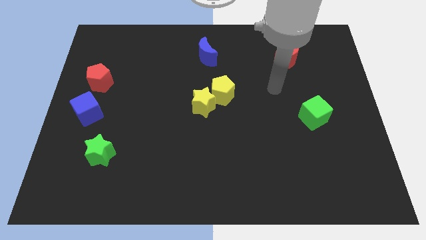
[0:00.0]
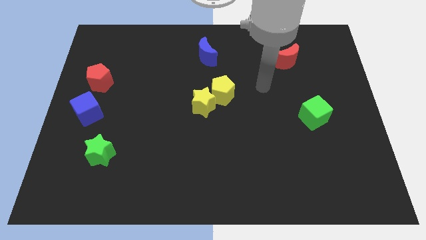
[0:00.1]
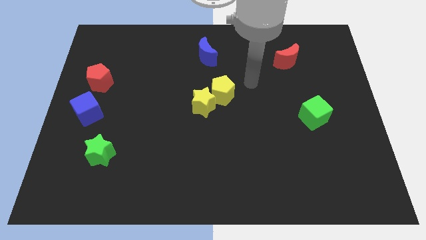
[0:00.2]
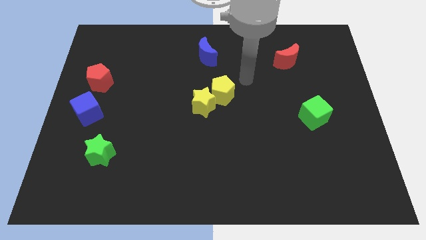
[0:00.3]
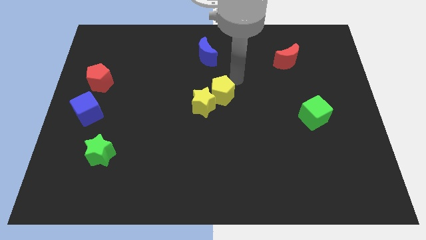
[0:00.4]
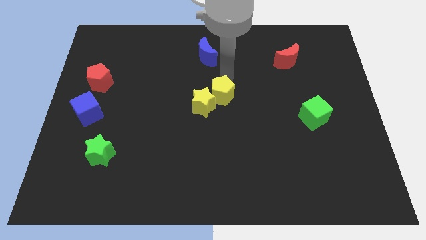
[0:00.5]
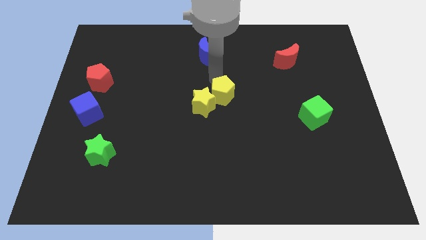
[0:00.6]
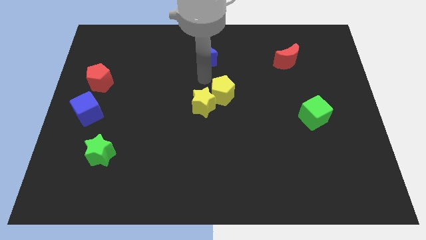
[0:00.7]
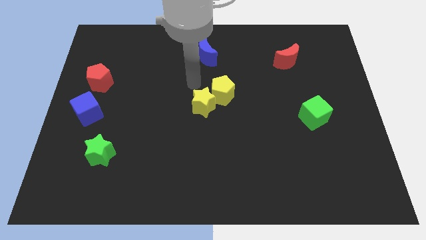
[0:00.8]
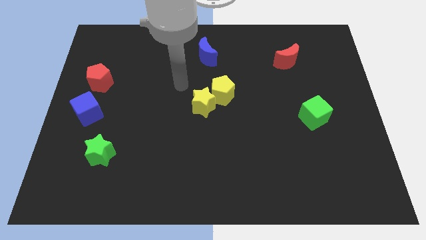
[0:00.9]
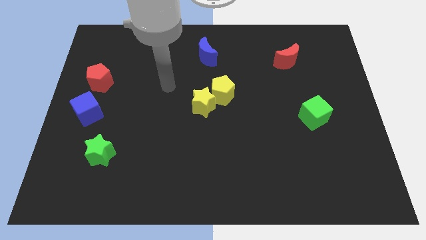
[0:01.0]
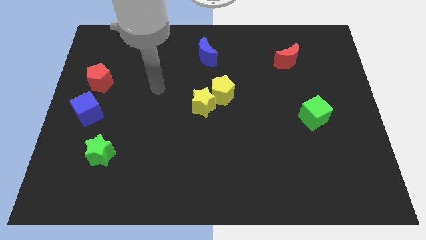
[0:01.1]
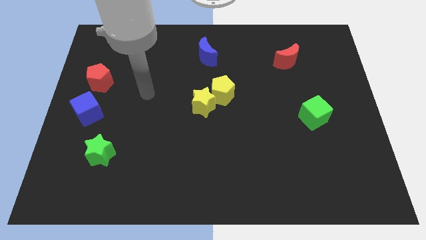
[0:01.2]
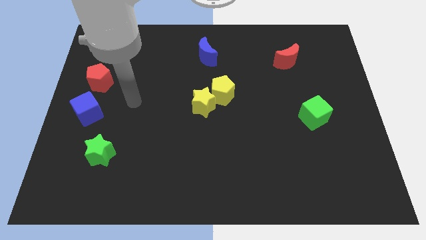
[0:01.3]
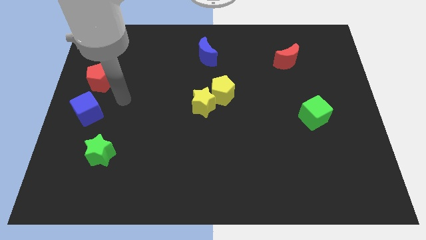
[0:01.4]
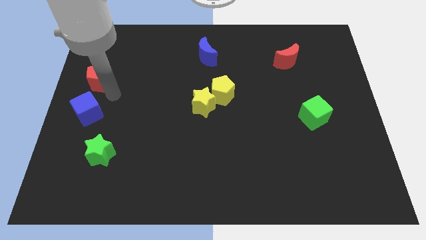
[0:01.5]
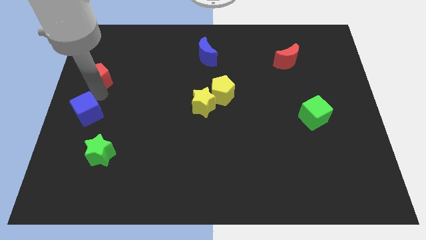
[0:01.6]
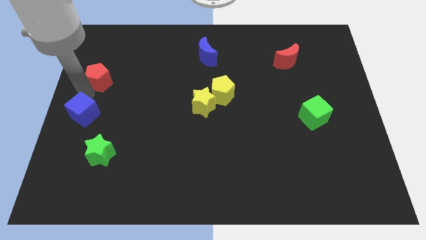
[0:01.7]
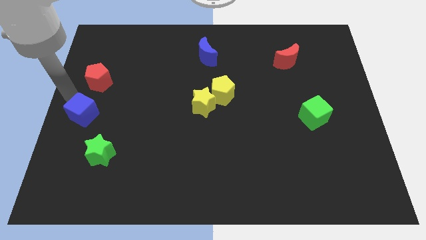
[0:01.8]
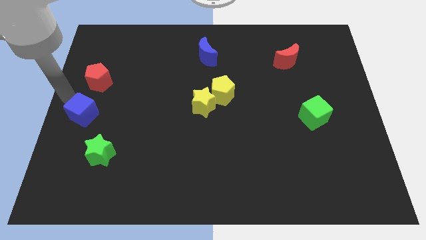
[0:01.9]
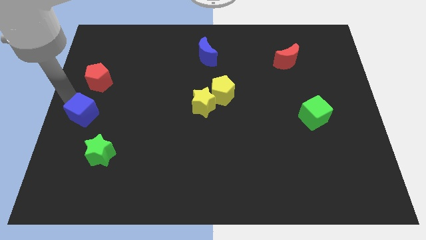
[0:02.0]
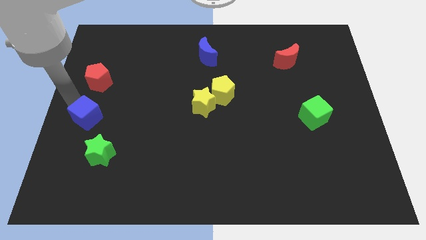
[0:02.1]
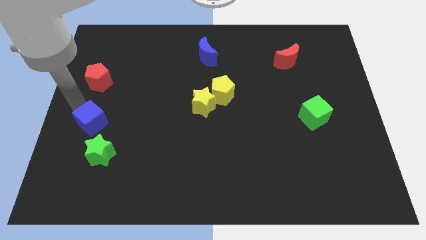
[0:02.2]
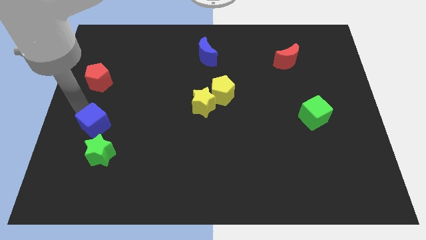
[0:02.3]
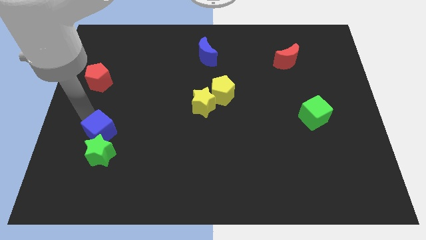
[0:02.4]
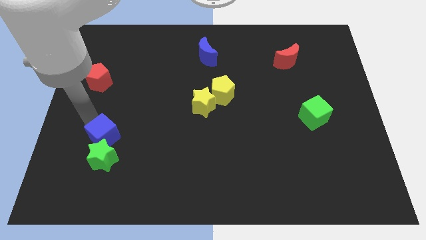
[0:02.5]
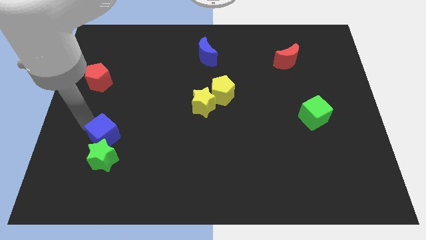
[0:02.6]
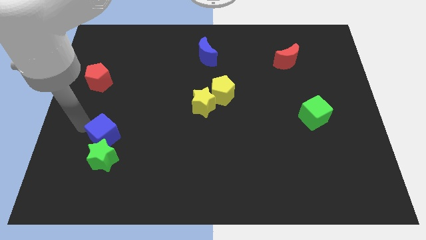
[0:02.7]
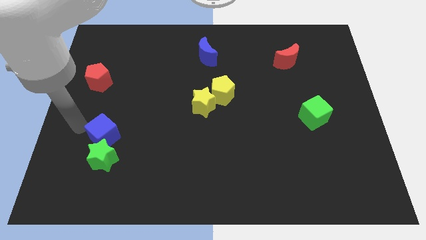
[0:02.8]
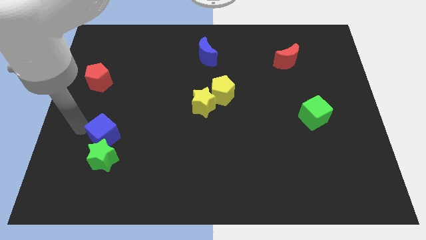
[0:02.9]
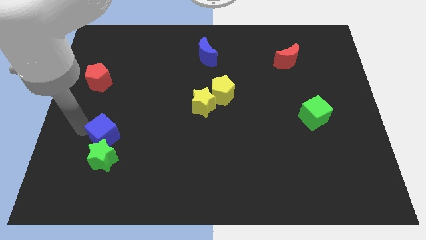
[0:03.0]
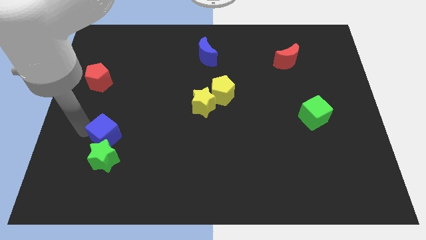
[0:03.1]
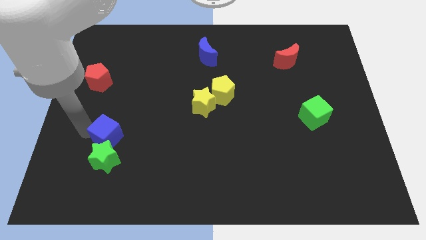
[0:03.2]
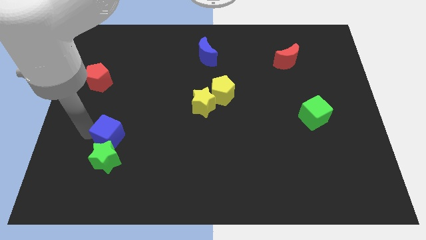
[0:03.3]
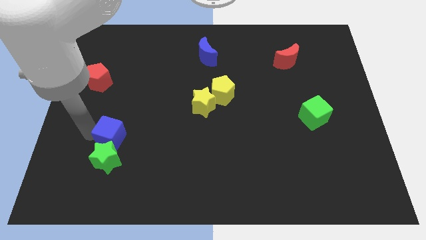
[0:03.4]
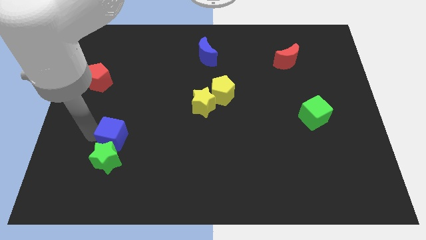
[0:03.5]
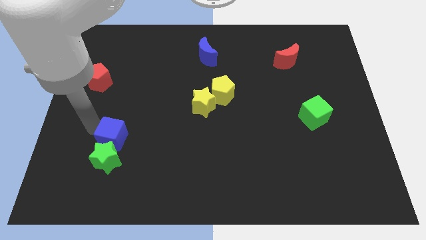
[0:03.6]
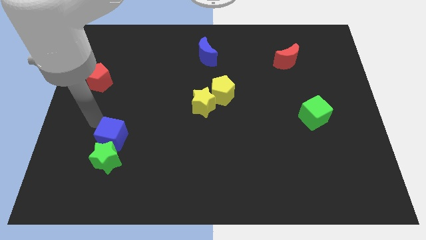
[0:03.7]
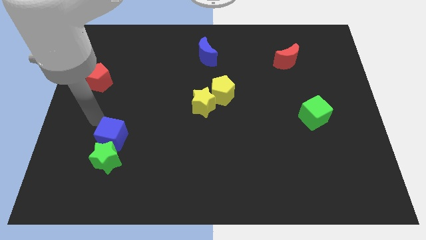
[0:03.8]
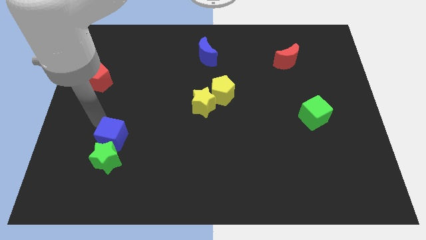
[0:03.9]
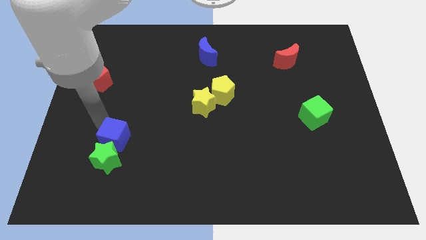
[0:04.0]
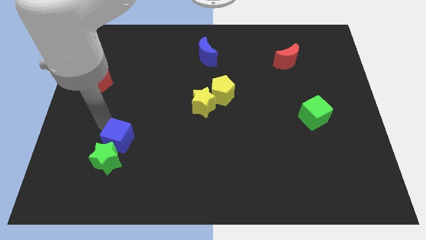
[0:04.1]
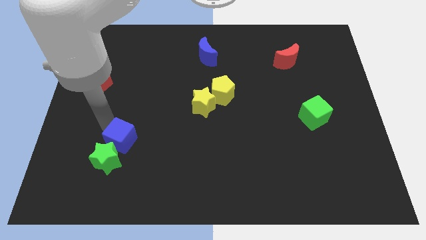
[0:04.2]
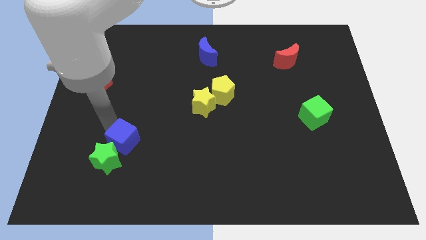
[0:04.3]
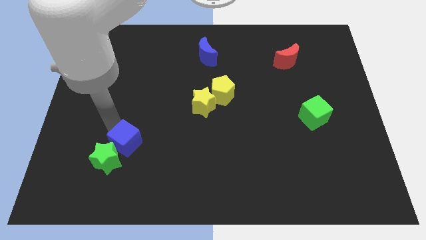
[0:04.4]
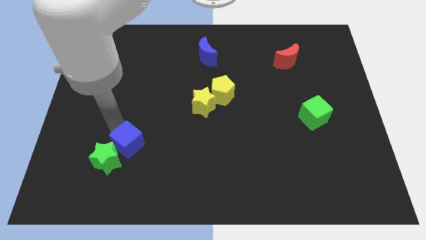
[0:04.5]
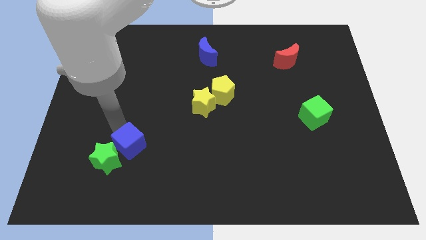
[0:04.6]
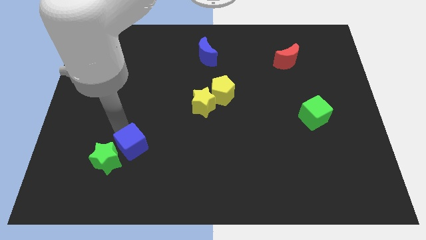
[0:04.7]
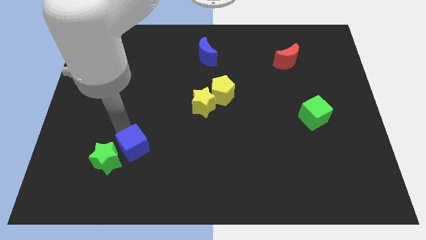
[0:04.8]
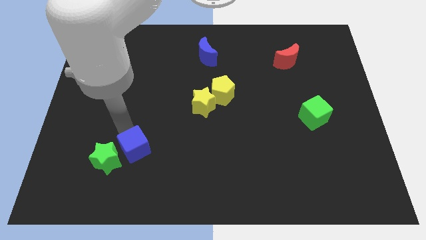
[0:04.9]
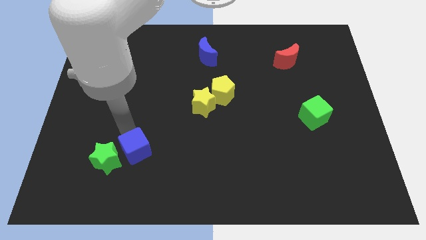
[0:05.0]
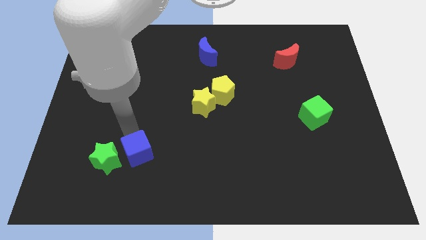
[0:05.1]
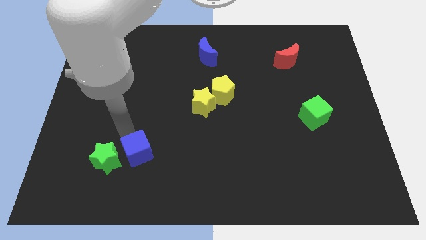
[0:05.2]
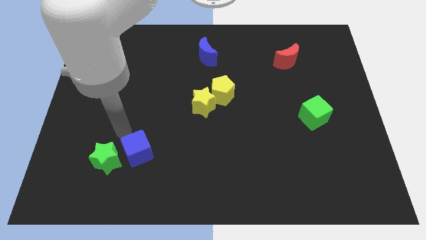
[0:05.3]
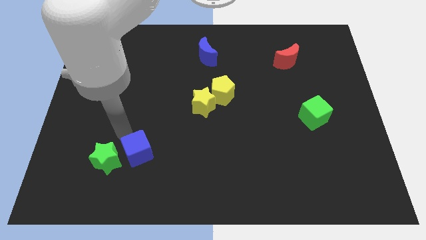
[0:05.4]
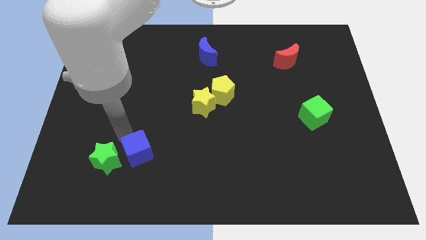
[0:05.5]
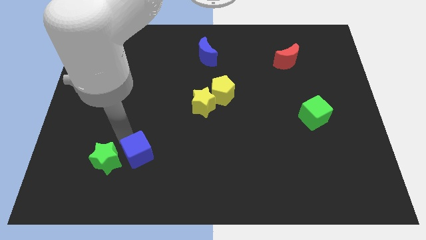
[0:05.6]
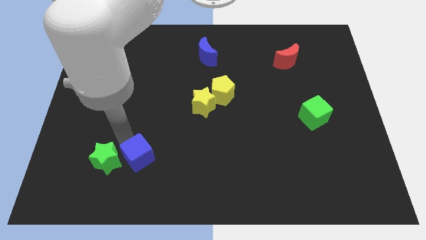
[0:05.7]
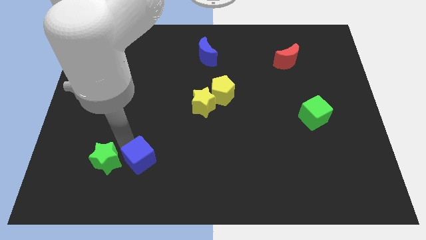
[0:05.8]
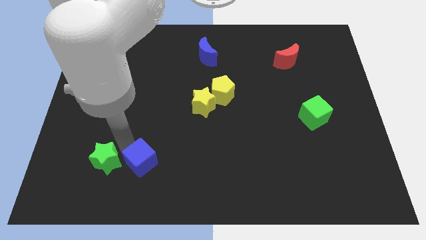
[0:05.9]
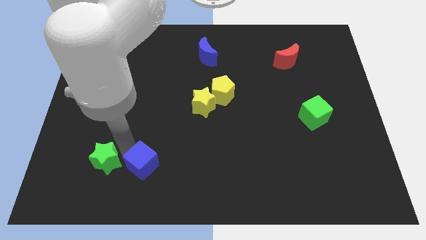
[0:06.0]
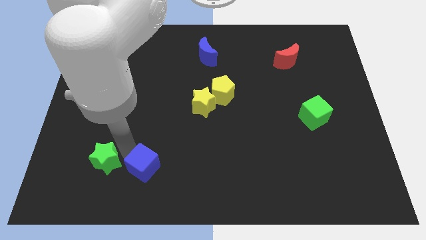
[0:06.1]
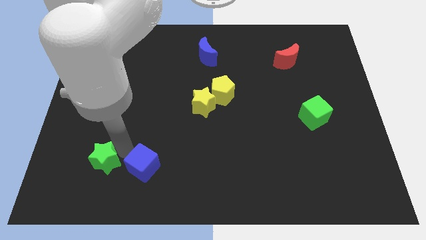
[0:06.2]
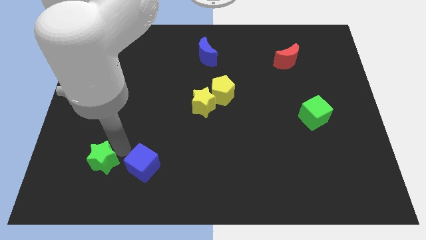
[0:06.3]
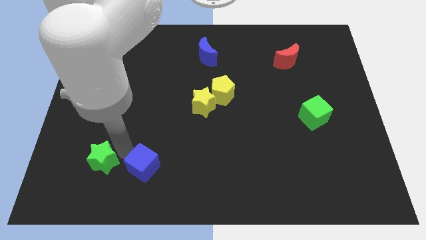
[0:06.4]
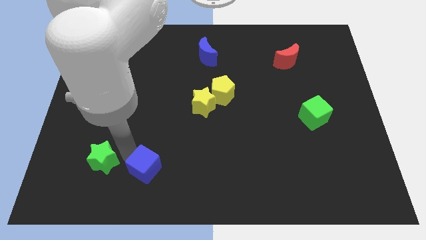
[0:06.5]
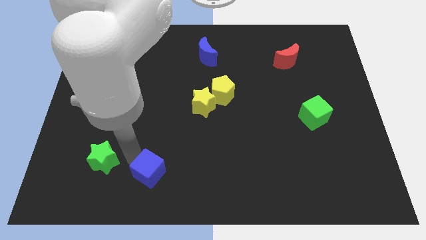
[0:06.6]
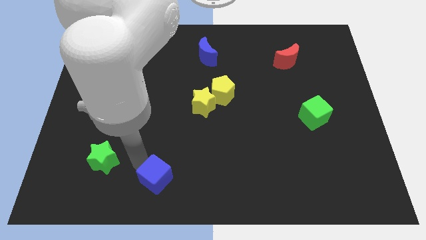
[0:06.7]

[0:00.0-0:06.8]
push the blue cube to the bottom side

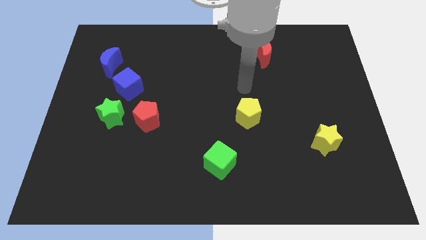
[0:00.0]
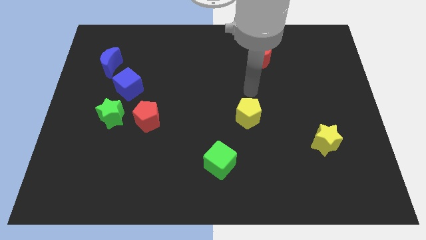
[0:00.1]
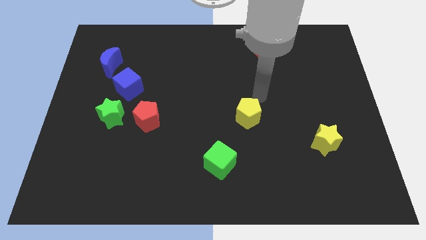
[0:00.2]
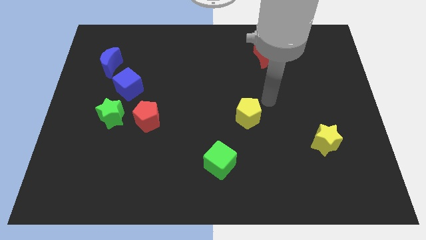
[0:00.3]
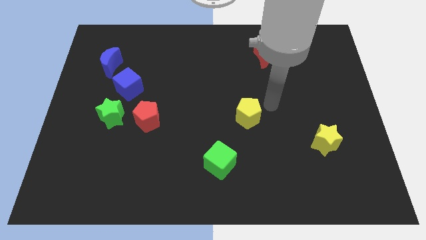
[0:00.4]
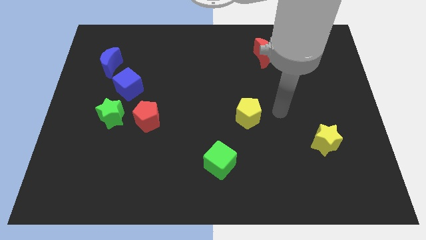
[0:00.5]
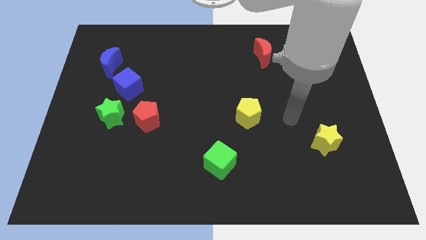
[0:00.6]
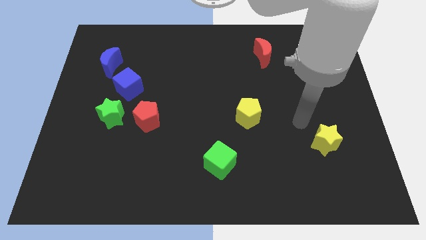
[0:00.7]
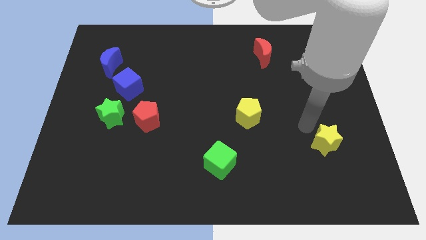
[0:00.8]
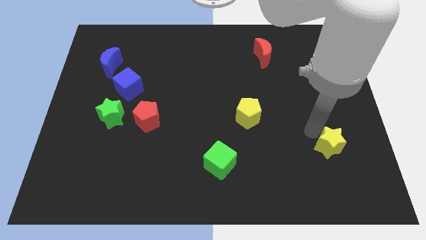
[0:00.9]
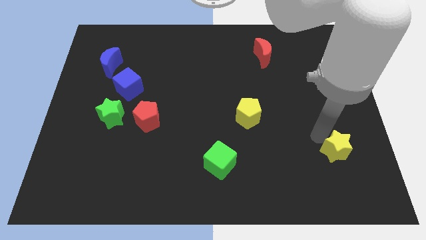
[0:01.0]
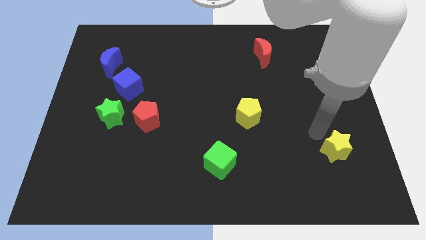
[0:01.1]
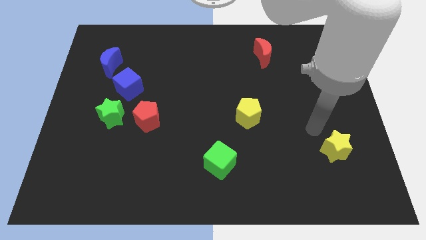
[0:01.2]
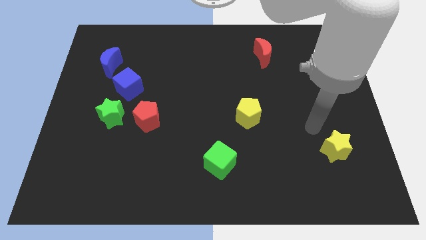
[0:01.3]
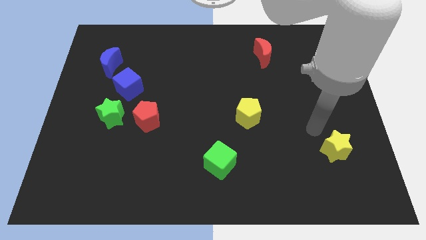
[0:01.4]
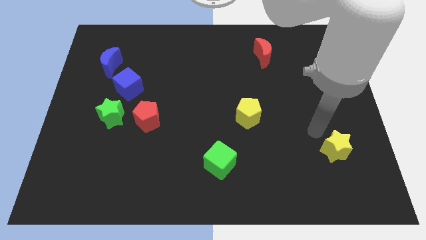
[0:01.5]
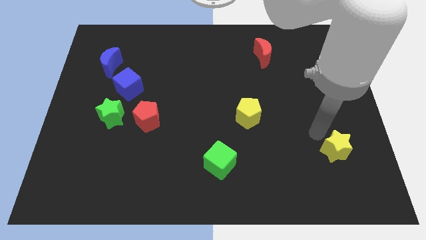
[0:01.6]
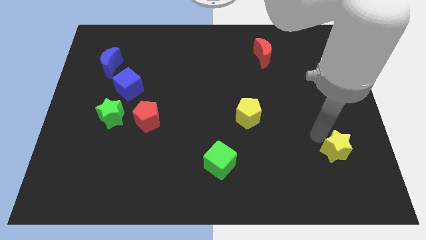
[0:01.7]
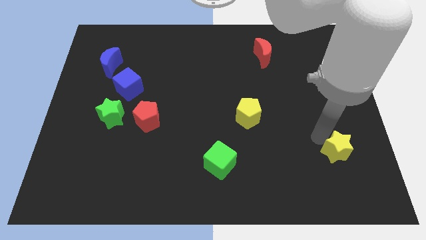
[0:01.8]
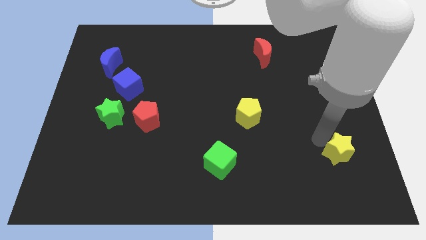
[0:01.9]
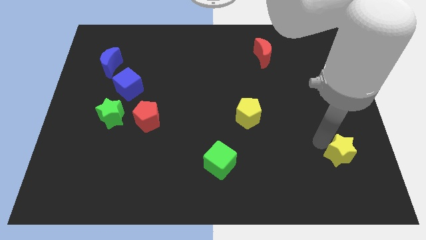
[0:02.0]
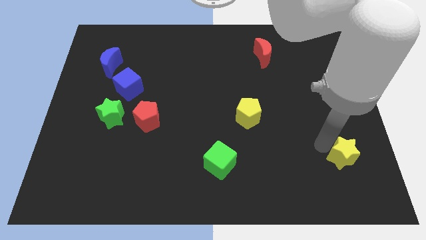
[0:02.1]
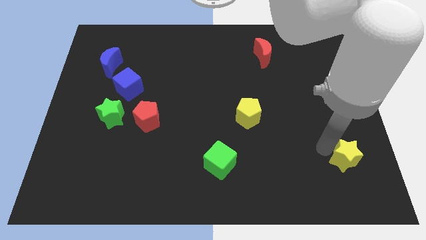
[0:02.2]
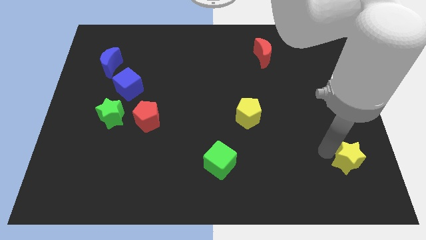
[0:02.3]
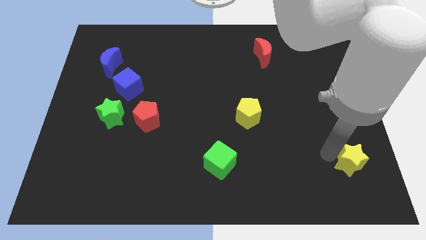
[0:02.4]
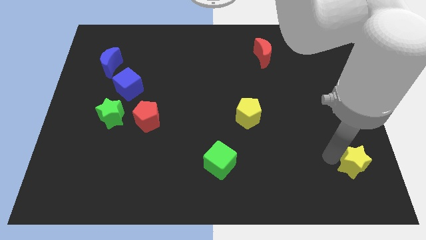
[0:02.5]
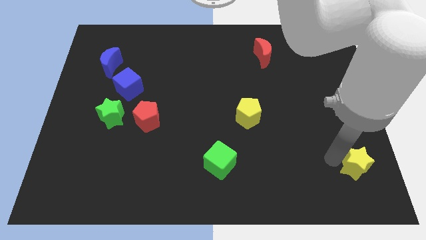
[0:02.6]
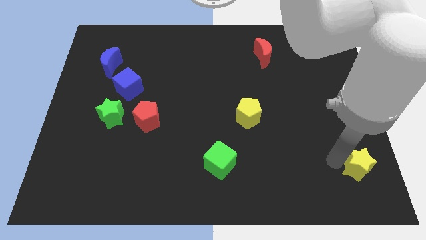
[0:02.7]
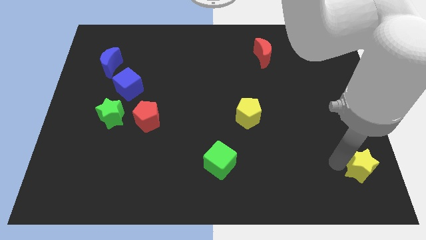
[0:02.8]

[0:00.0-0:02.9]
slide the yellow star to the lower right corner
